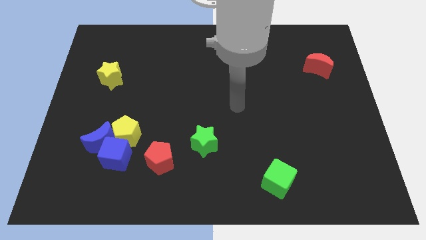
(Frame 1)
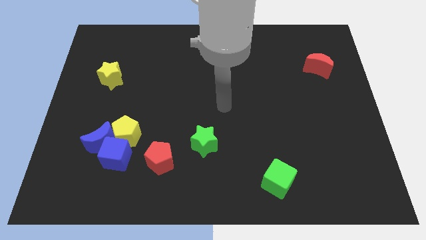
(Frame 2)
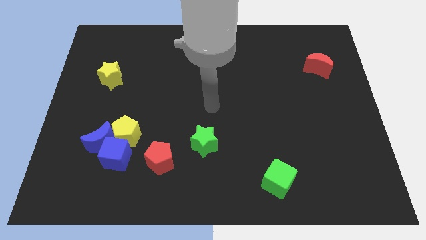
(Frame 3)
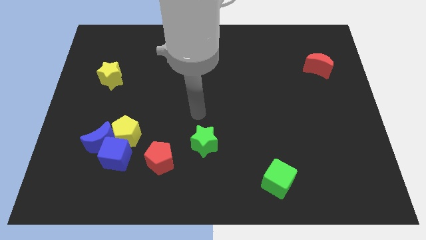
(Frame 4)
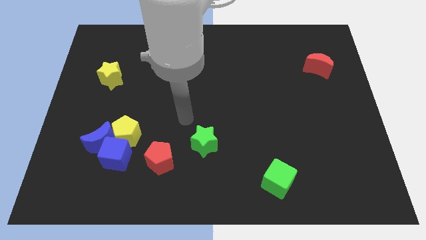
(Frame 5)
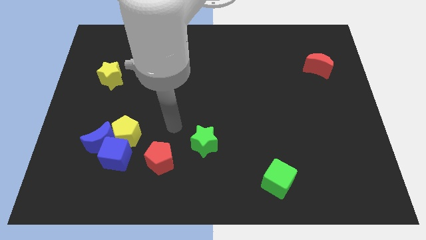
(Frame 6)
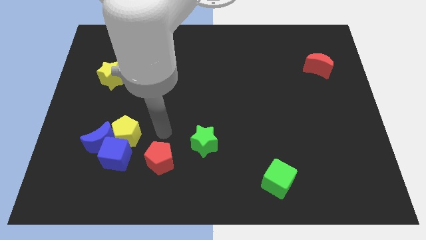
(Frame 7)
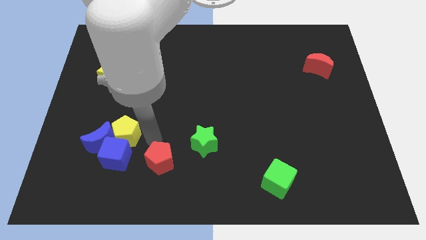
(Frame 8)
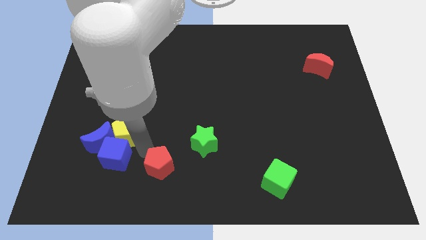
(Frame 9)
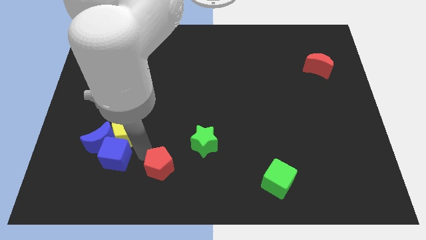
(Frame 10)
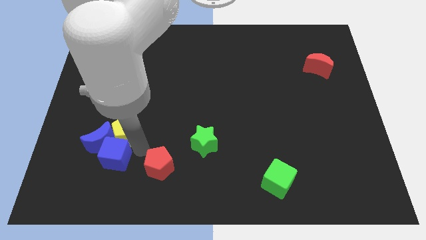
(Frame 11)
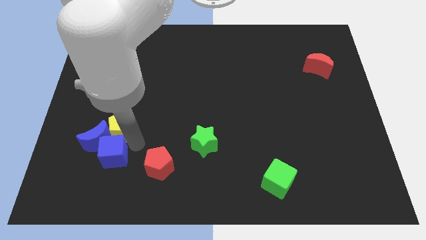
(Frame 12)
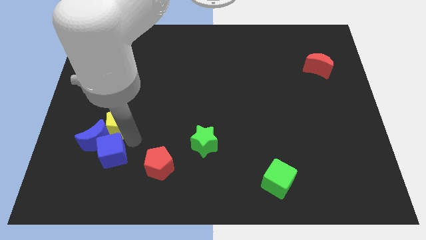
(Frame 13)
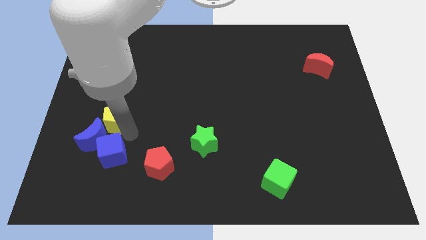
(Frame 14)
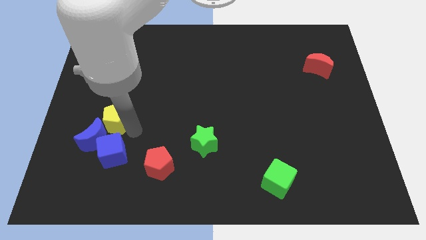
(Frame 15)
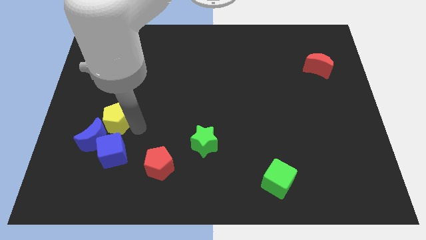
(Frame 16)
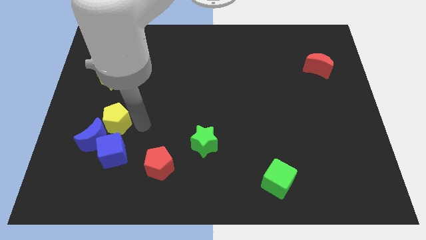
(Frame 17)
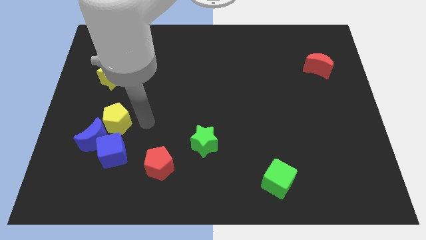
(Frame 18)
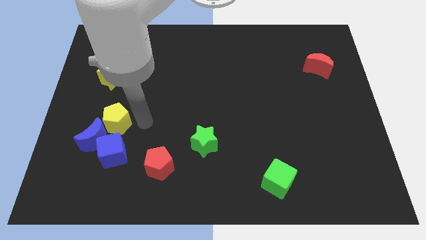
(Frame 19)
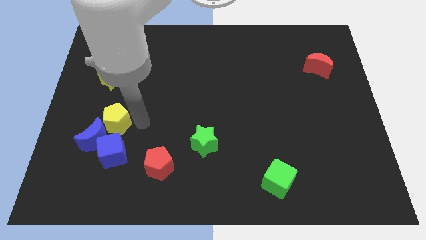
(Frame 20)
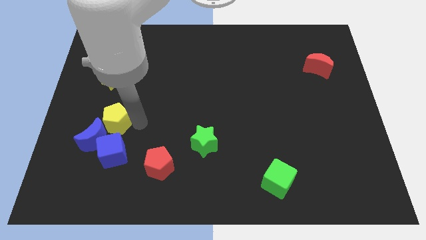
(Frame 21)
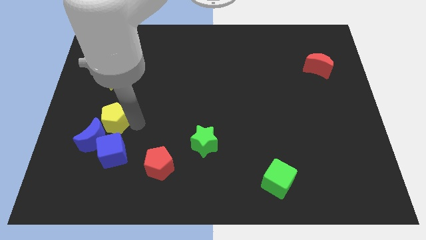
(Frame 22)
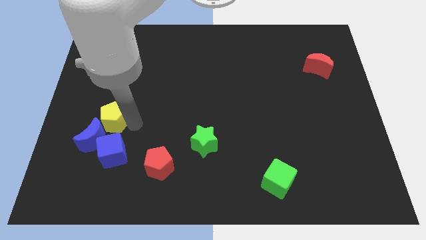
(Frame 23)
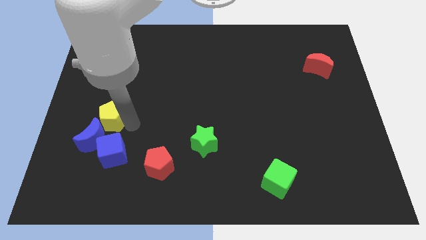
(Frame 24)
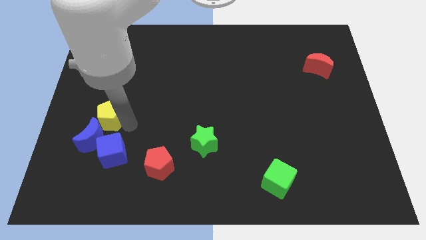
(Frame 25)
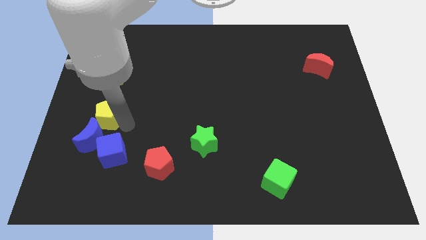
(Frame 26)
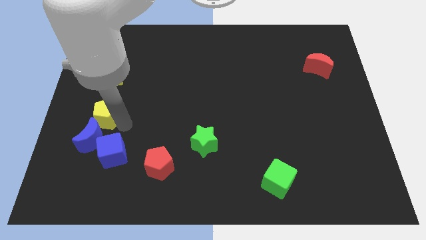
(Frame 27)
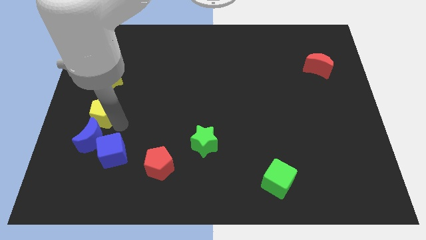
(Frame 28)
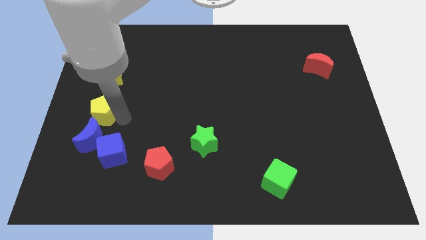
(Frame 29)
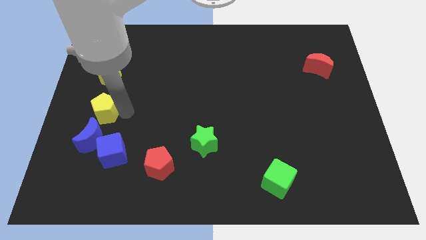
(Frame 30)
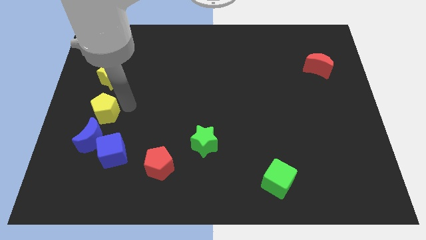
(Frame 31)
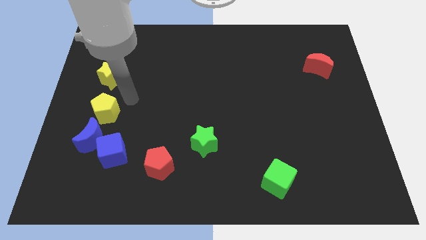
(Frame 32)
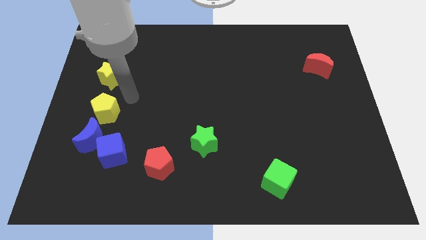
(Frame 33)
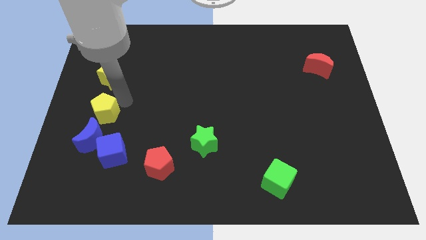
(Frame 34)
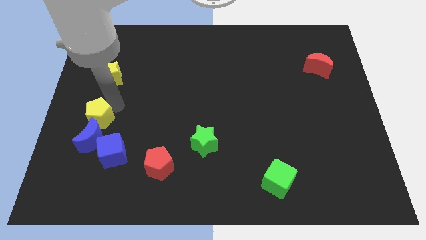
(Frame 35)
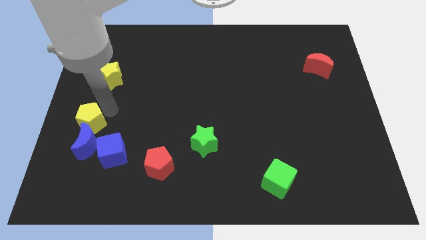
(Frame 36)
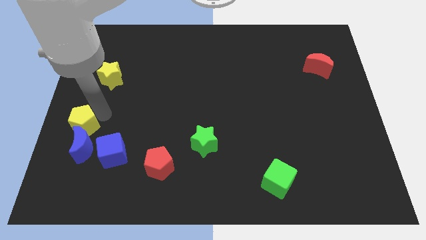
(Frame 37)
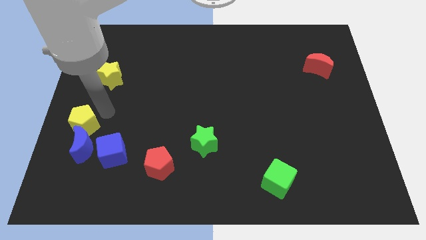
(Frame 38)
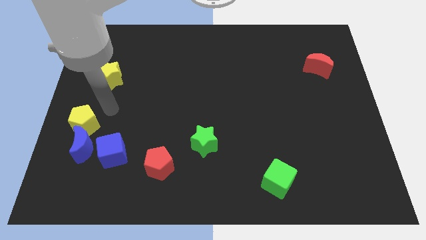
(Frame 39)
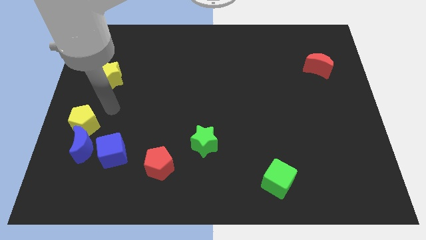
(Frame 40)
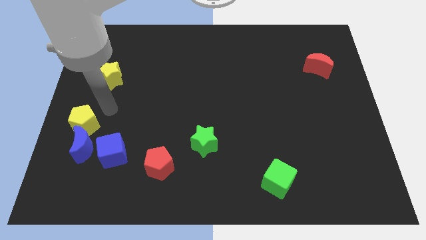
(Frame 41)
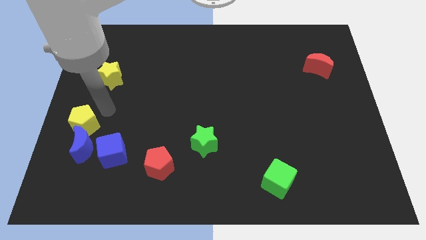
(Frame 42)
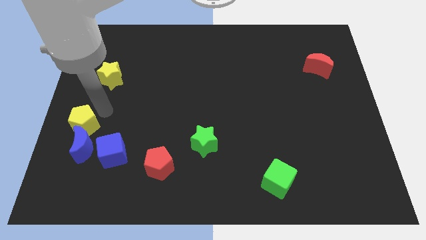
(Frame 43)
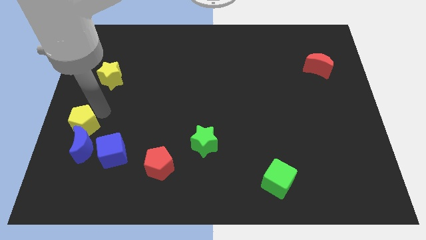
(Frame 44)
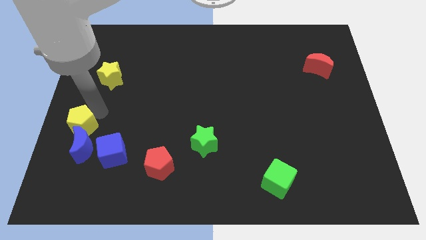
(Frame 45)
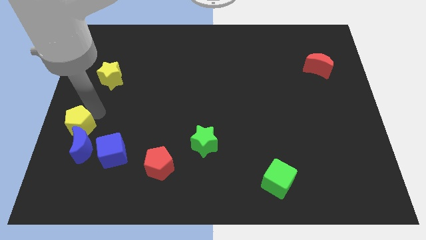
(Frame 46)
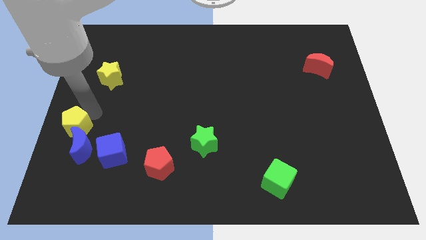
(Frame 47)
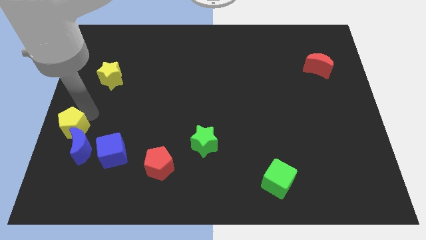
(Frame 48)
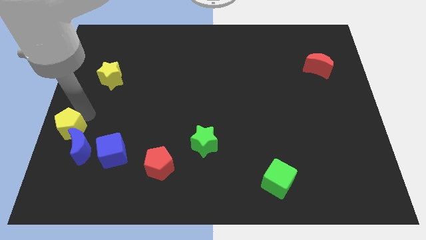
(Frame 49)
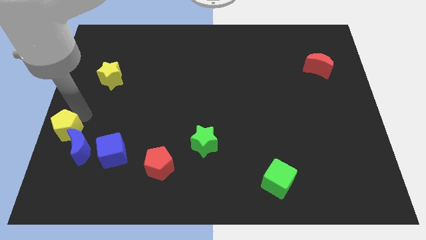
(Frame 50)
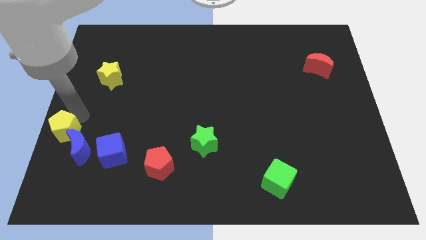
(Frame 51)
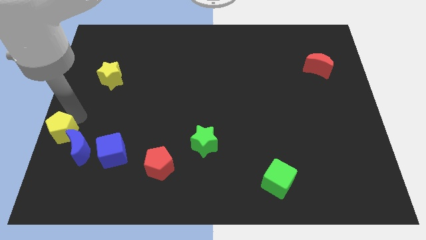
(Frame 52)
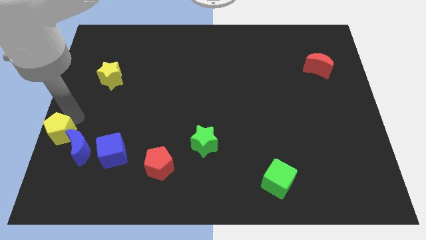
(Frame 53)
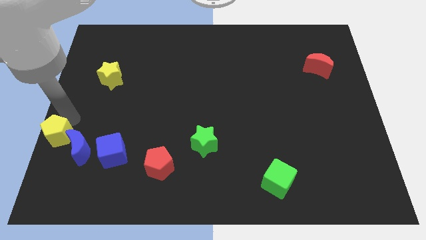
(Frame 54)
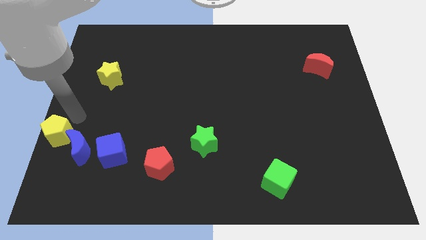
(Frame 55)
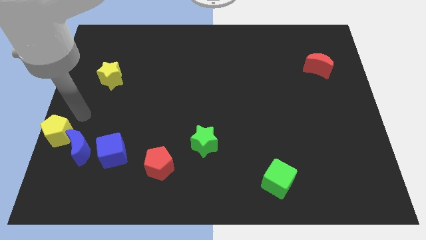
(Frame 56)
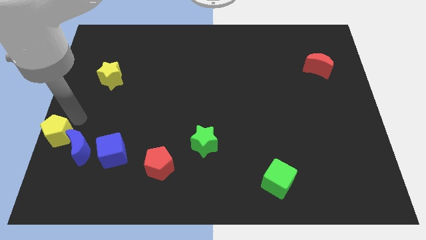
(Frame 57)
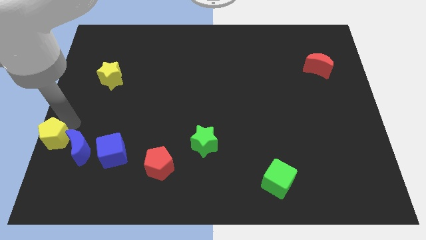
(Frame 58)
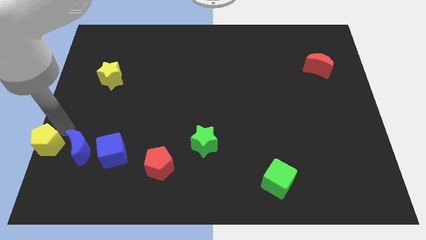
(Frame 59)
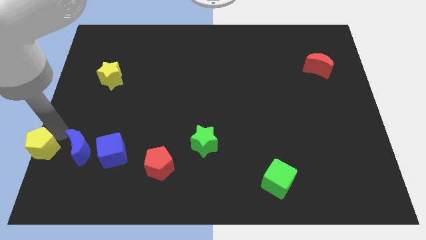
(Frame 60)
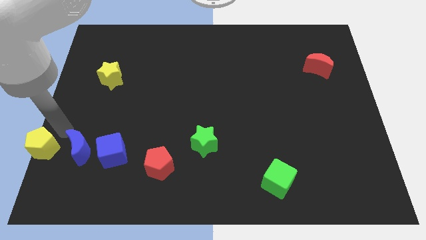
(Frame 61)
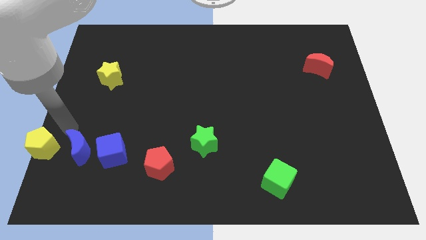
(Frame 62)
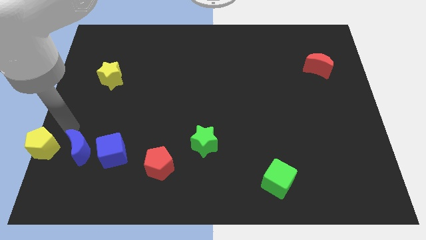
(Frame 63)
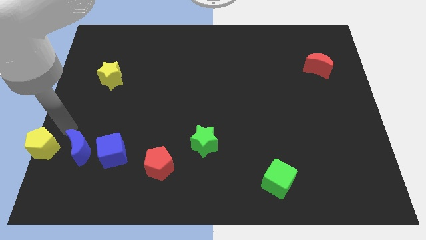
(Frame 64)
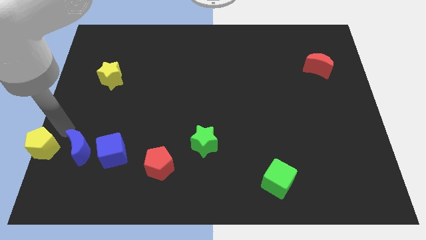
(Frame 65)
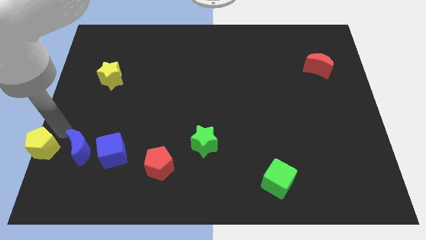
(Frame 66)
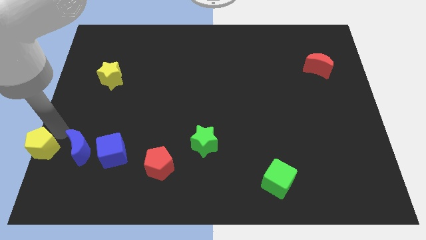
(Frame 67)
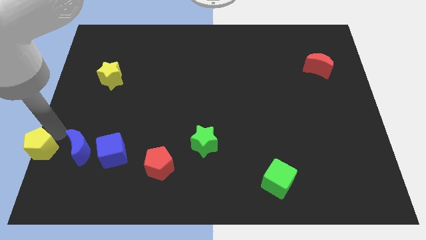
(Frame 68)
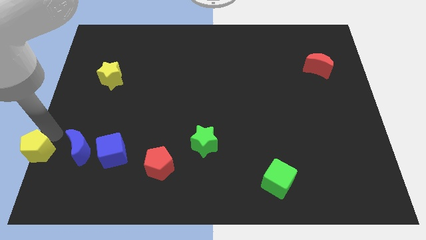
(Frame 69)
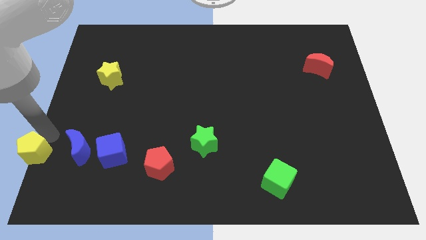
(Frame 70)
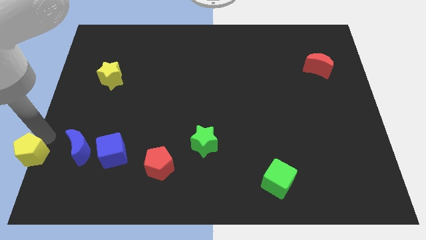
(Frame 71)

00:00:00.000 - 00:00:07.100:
push the yellow pentagon to the bottom left of the board
